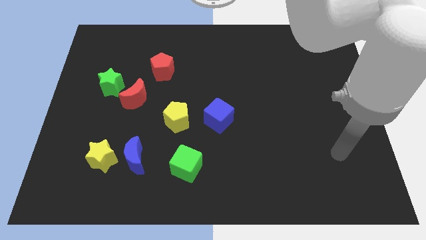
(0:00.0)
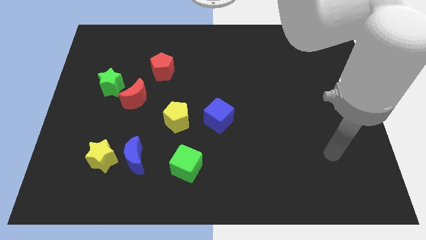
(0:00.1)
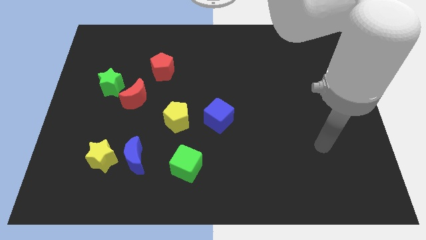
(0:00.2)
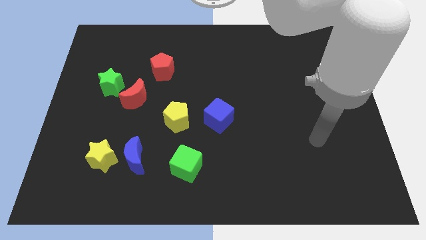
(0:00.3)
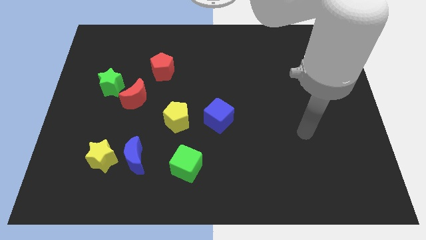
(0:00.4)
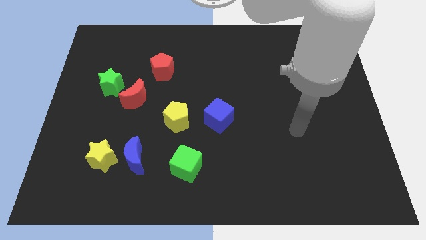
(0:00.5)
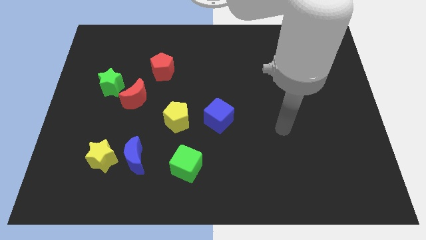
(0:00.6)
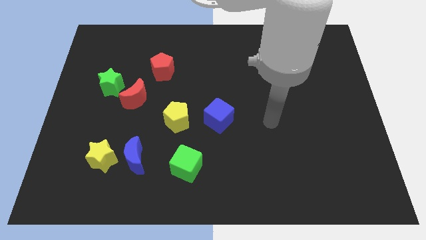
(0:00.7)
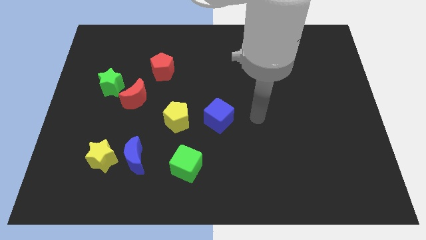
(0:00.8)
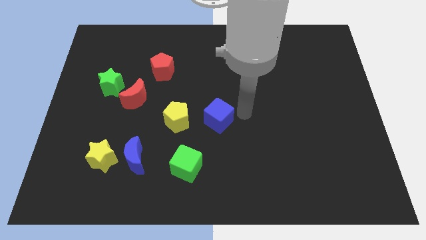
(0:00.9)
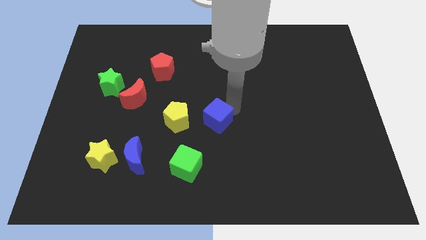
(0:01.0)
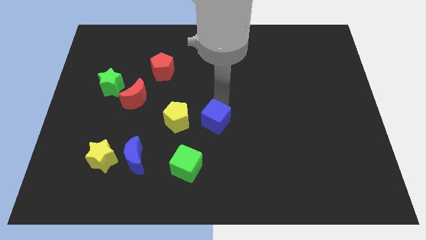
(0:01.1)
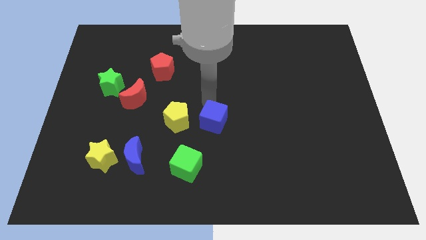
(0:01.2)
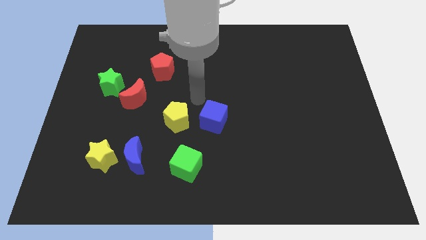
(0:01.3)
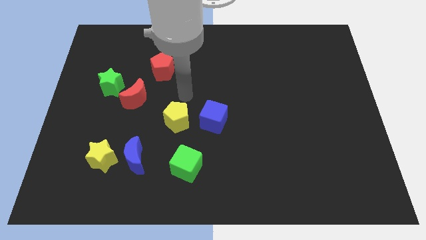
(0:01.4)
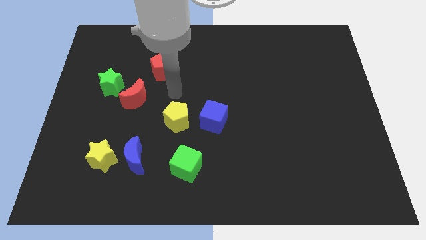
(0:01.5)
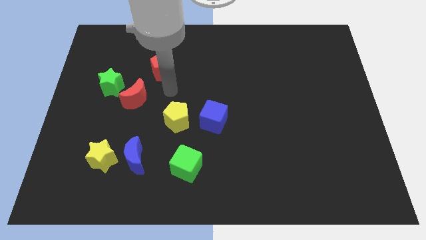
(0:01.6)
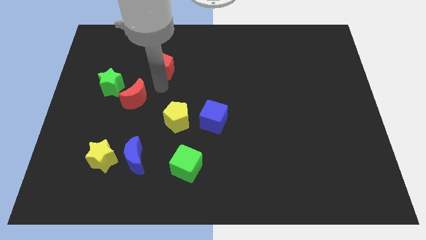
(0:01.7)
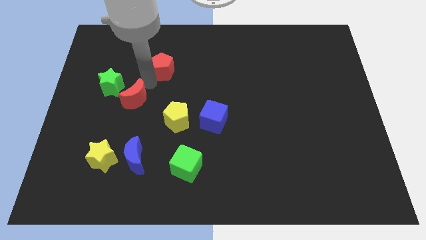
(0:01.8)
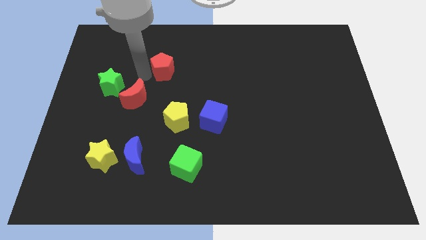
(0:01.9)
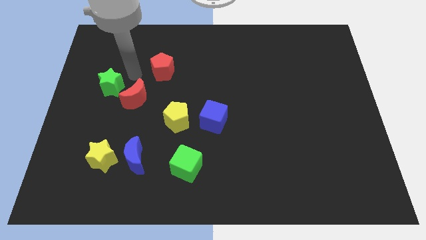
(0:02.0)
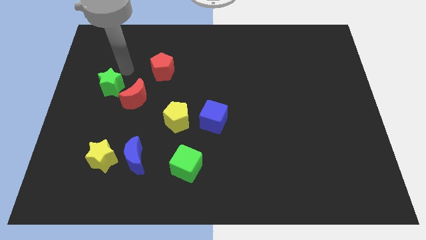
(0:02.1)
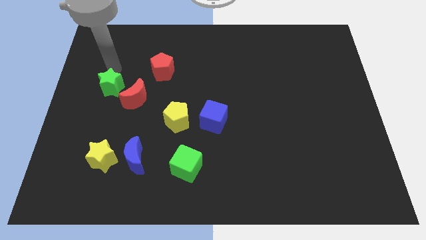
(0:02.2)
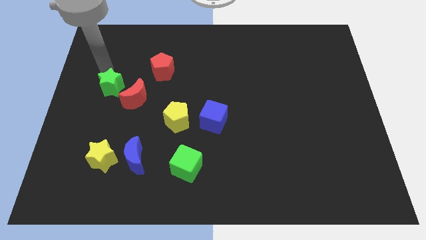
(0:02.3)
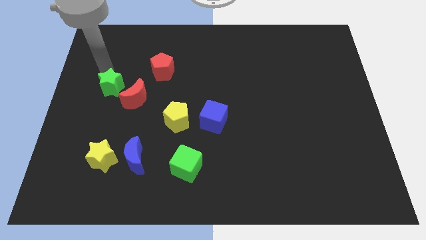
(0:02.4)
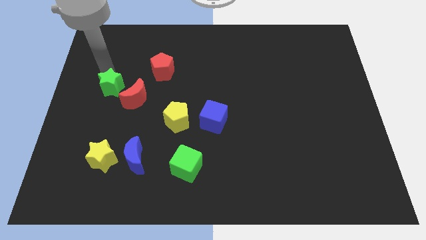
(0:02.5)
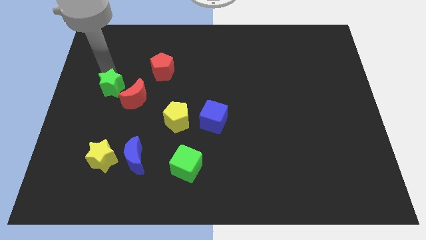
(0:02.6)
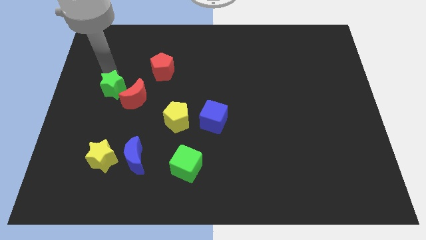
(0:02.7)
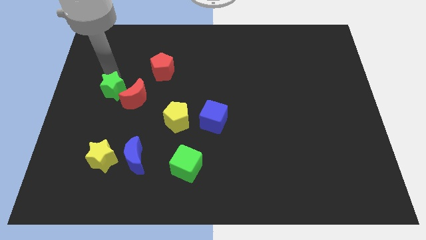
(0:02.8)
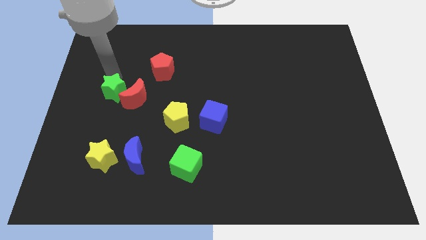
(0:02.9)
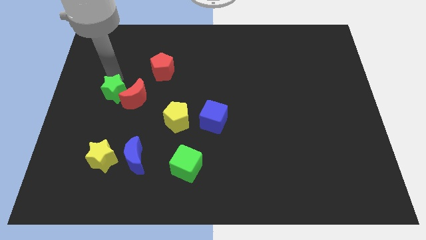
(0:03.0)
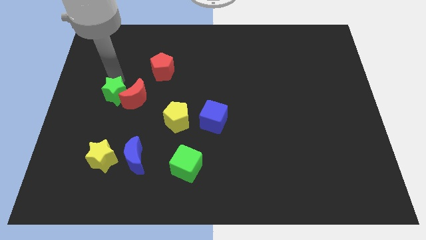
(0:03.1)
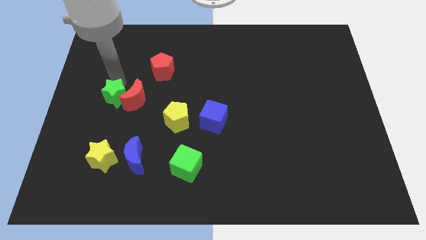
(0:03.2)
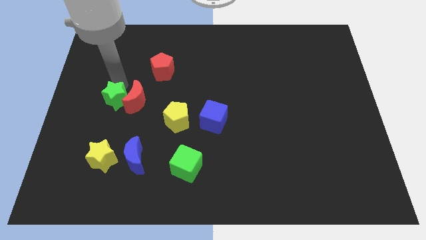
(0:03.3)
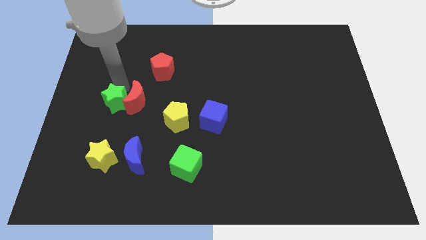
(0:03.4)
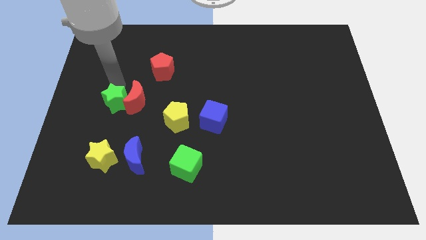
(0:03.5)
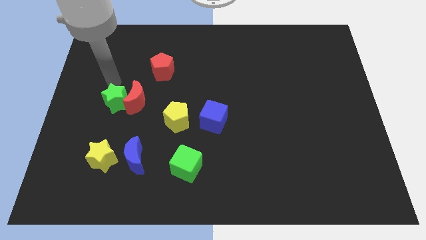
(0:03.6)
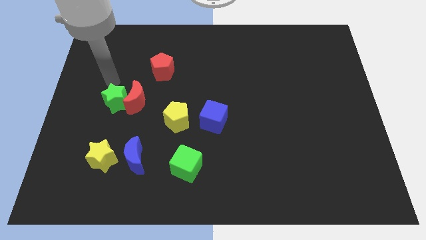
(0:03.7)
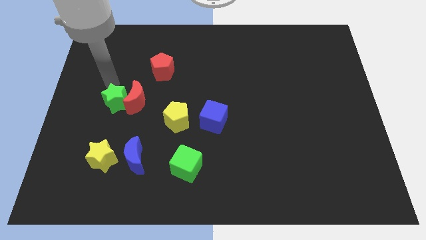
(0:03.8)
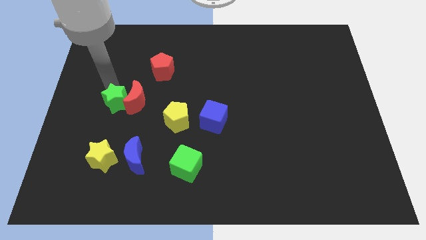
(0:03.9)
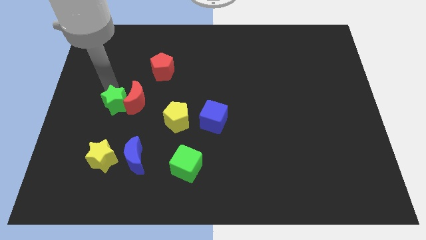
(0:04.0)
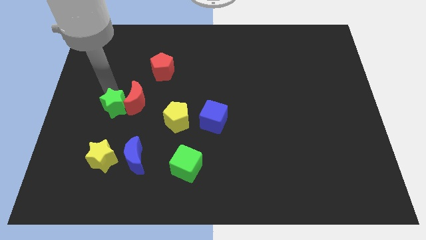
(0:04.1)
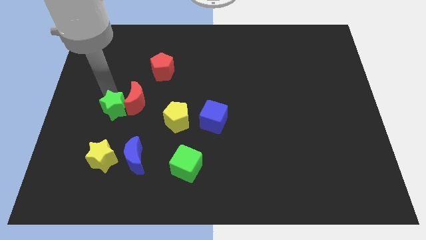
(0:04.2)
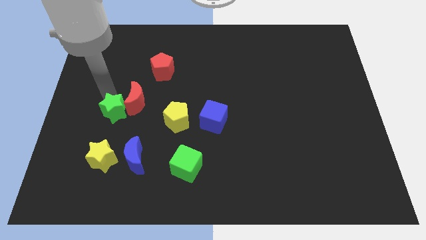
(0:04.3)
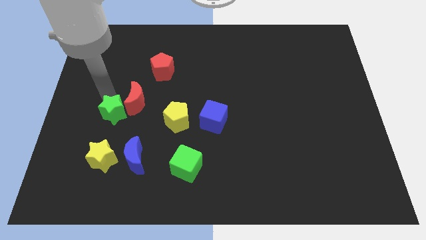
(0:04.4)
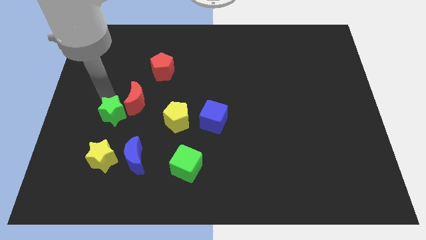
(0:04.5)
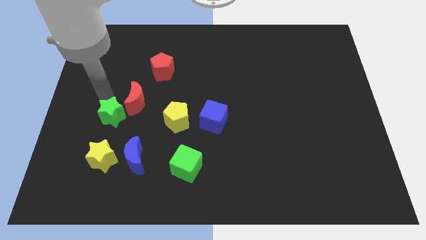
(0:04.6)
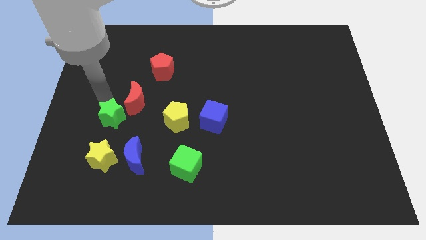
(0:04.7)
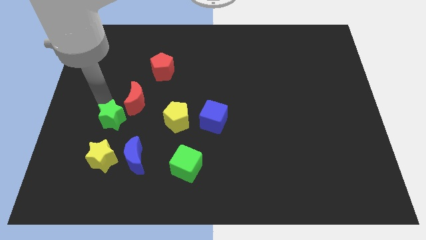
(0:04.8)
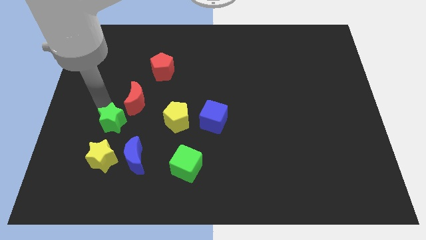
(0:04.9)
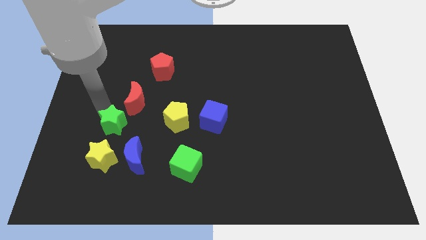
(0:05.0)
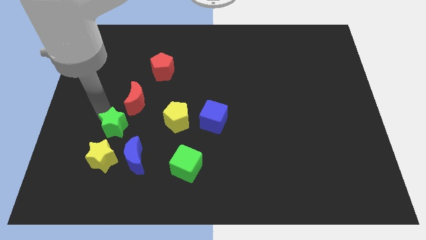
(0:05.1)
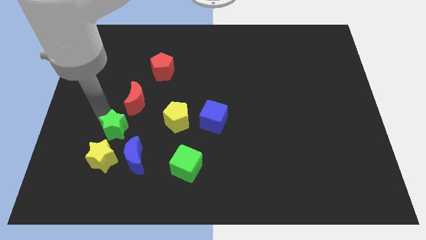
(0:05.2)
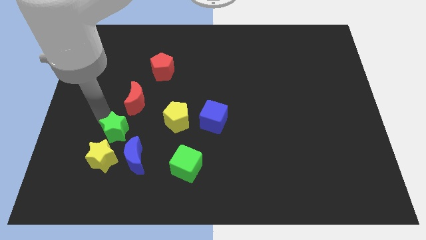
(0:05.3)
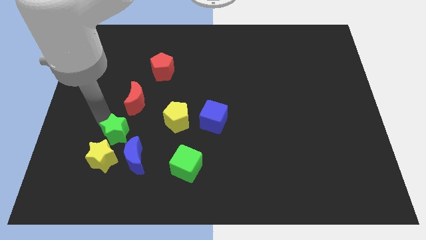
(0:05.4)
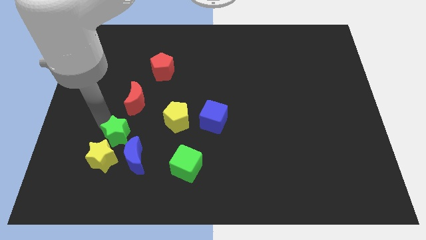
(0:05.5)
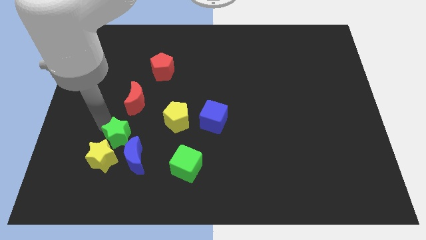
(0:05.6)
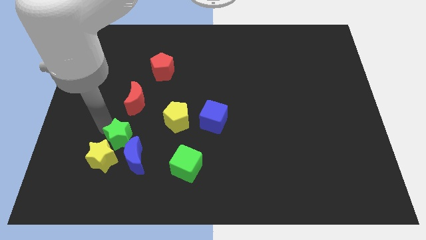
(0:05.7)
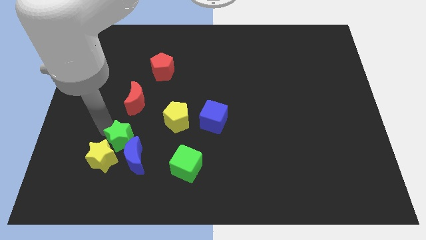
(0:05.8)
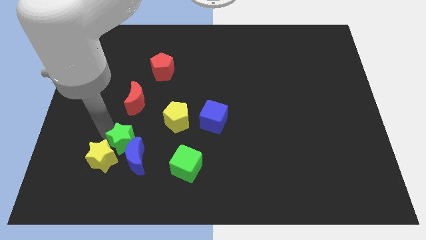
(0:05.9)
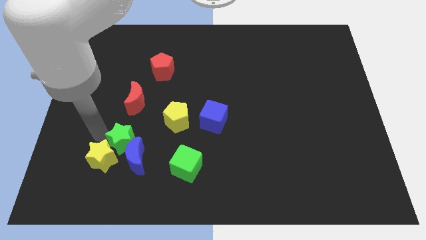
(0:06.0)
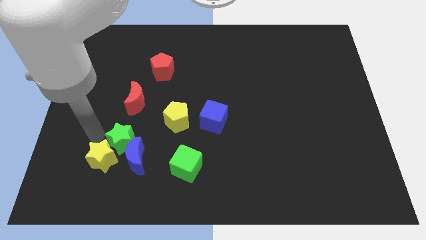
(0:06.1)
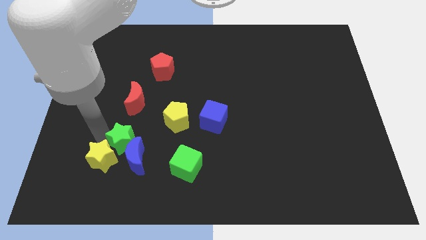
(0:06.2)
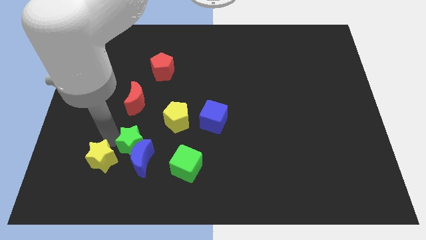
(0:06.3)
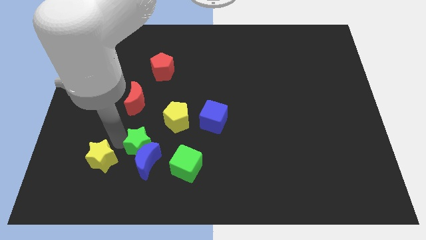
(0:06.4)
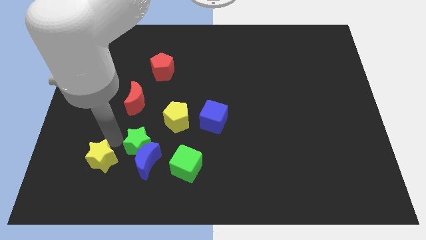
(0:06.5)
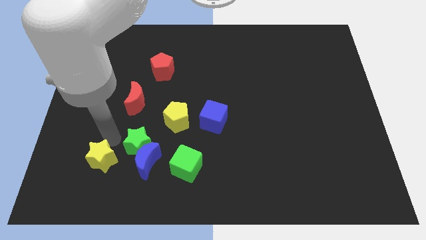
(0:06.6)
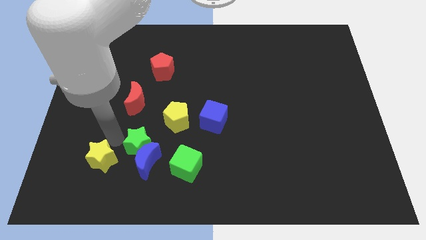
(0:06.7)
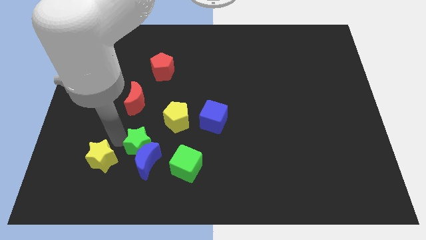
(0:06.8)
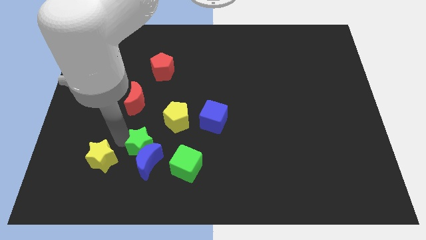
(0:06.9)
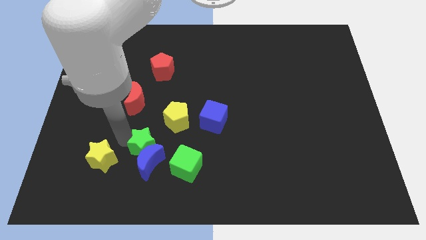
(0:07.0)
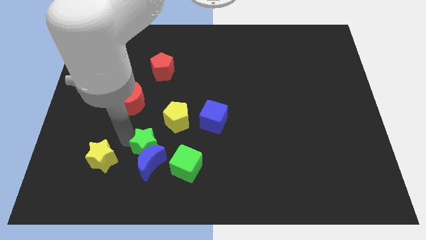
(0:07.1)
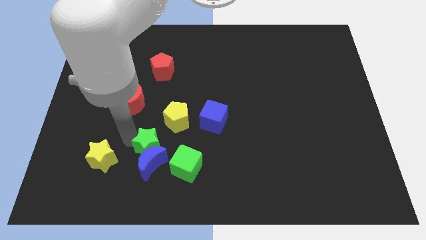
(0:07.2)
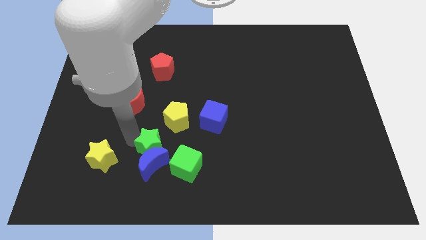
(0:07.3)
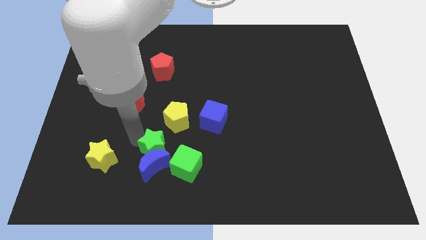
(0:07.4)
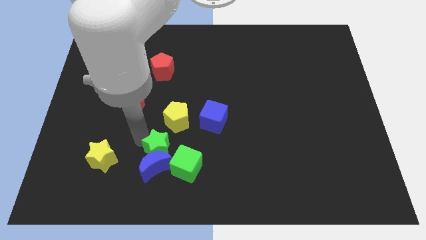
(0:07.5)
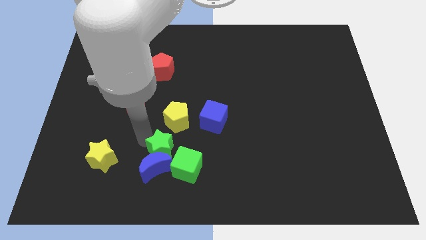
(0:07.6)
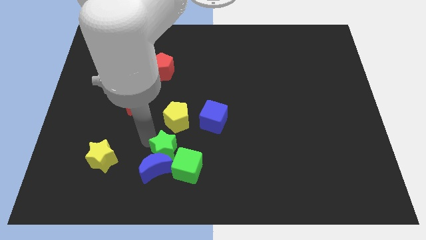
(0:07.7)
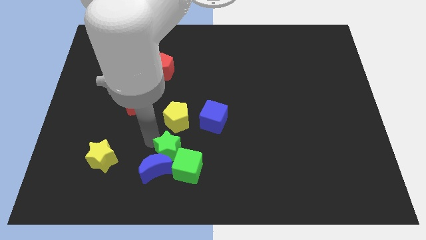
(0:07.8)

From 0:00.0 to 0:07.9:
put the green star close to the green cube
